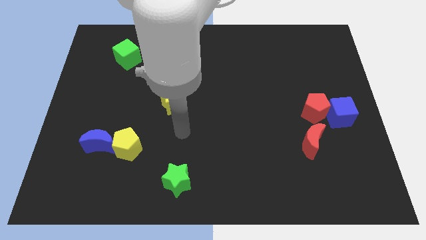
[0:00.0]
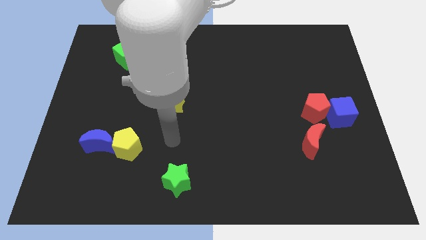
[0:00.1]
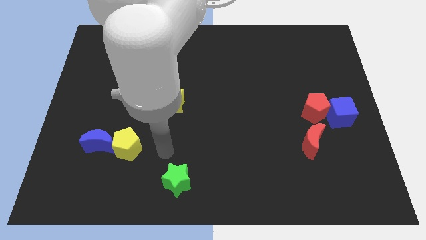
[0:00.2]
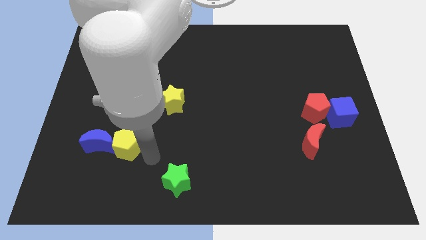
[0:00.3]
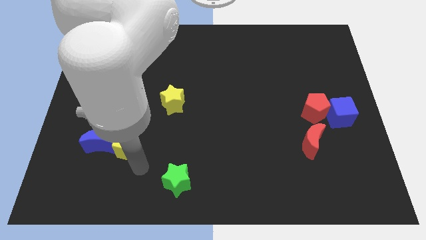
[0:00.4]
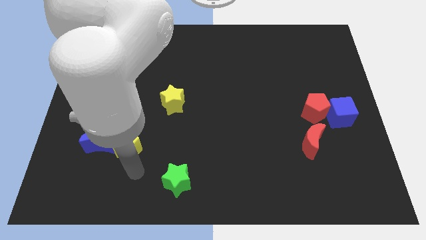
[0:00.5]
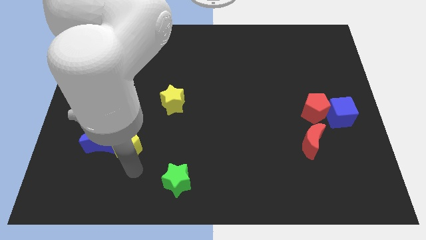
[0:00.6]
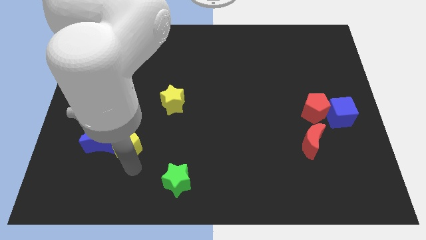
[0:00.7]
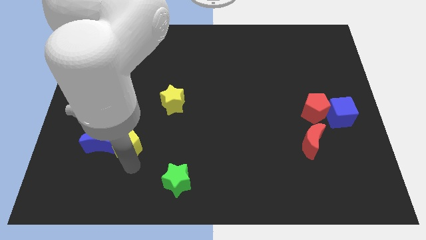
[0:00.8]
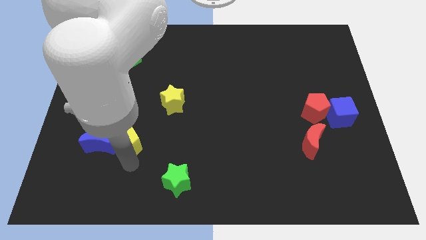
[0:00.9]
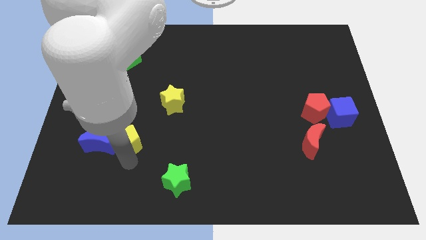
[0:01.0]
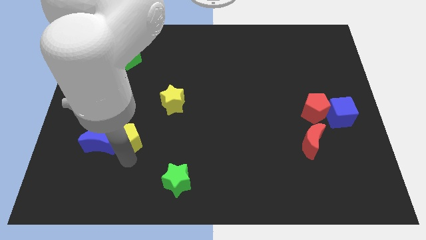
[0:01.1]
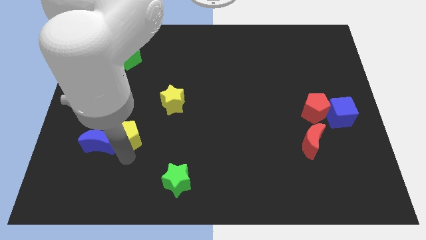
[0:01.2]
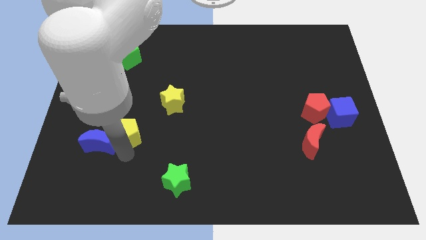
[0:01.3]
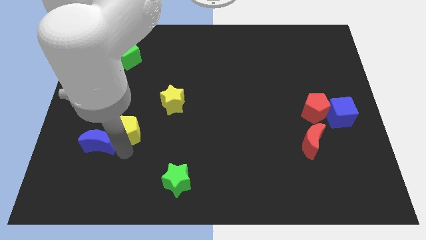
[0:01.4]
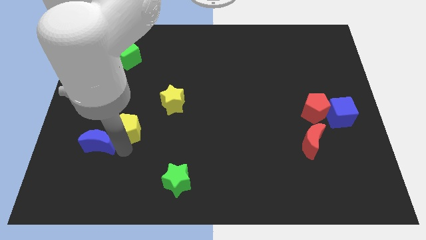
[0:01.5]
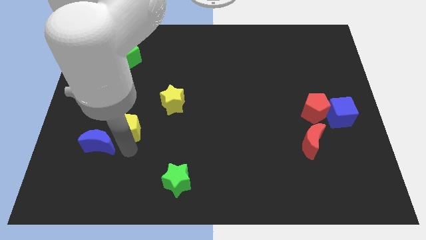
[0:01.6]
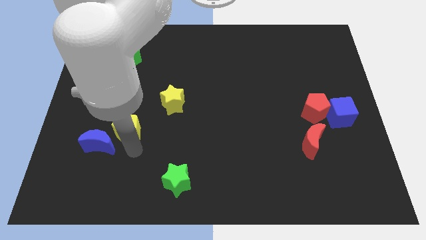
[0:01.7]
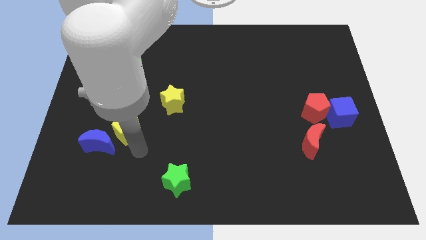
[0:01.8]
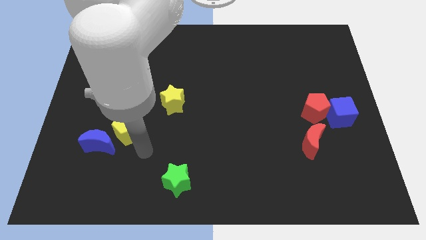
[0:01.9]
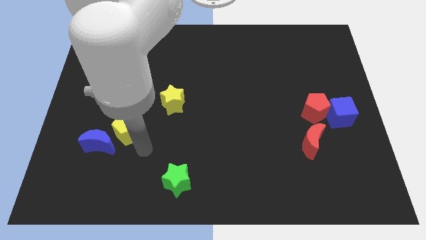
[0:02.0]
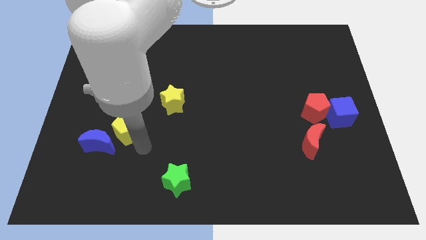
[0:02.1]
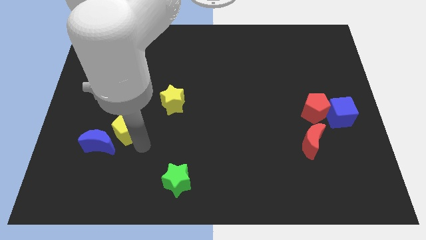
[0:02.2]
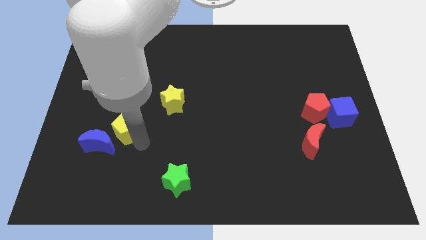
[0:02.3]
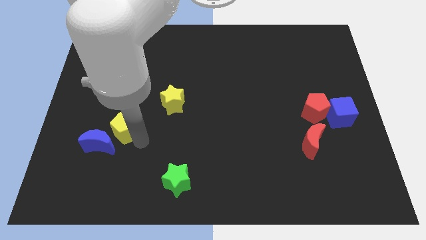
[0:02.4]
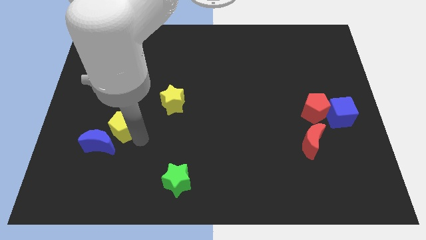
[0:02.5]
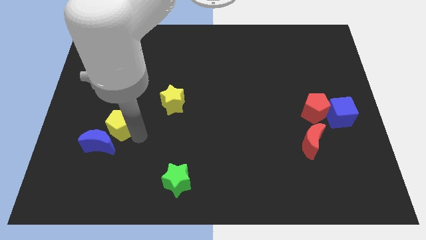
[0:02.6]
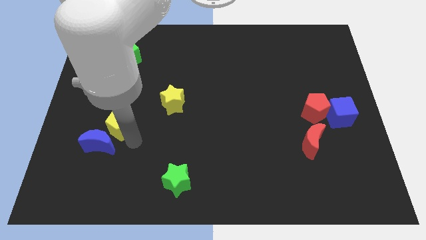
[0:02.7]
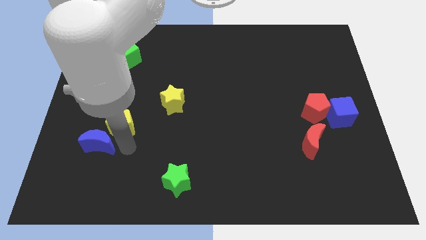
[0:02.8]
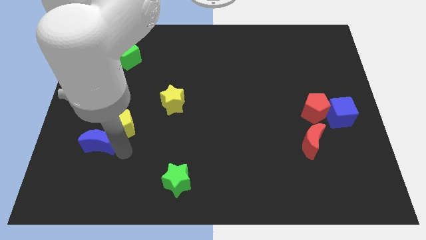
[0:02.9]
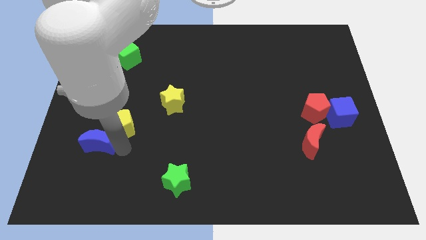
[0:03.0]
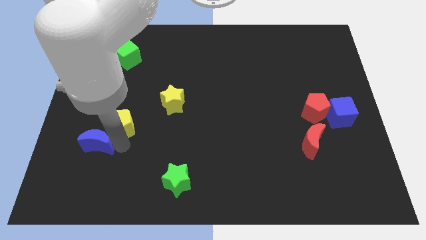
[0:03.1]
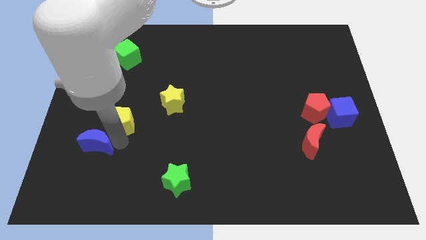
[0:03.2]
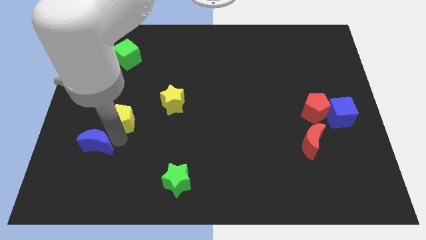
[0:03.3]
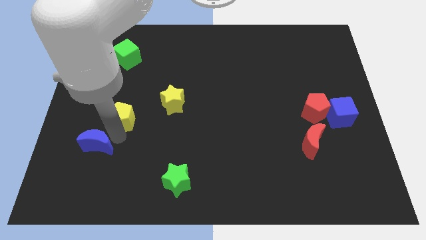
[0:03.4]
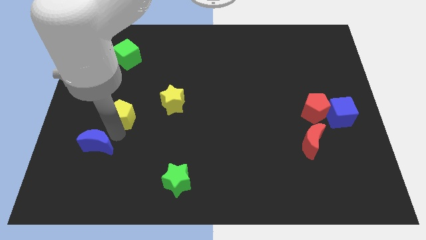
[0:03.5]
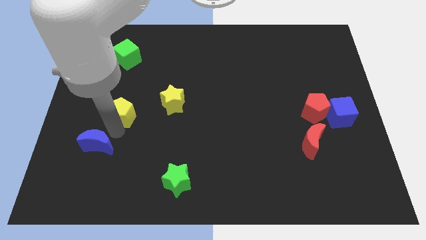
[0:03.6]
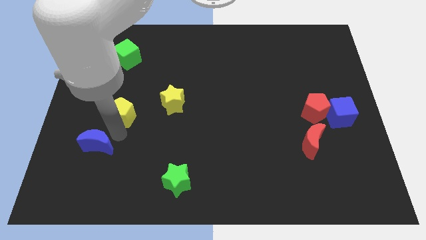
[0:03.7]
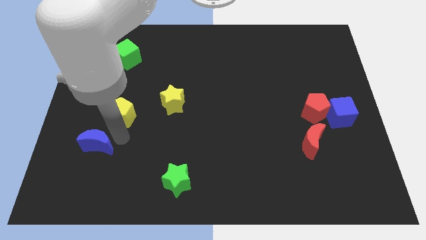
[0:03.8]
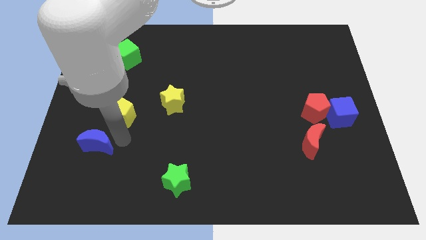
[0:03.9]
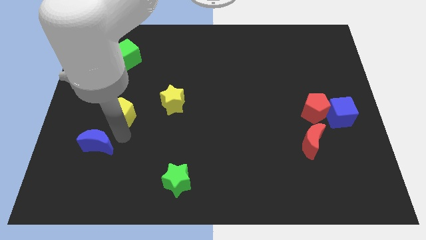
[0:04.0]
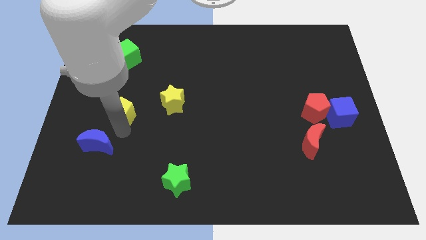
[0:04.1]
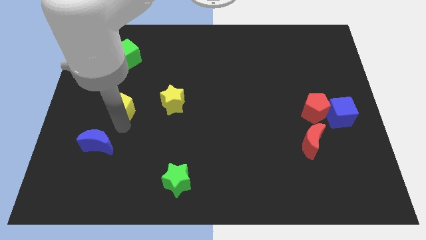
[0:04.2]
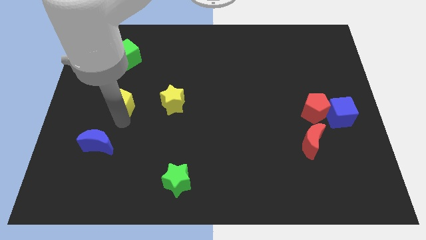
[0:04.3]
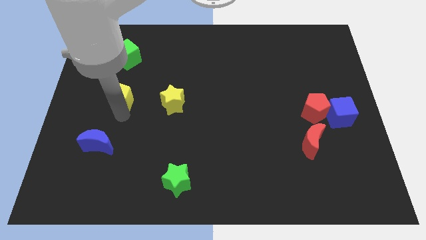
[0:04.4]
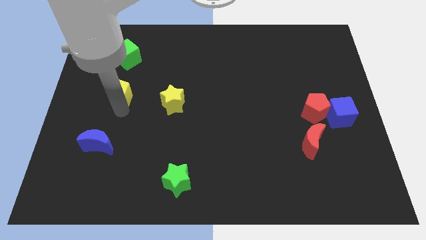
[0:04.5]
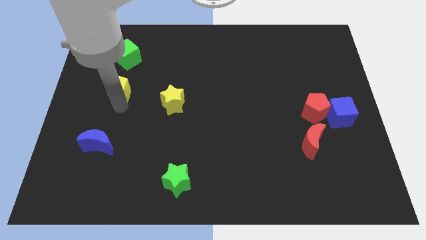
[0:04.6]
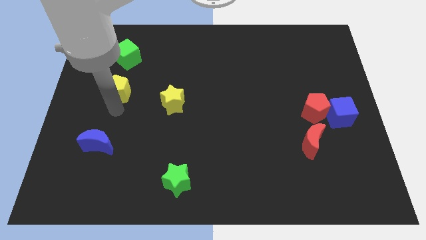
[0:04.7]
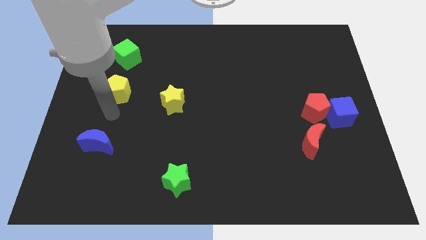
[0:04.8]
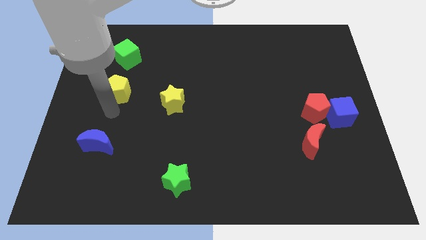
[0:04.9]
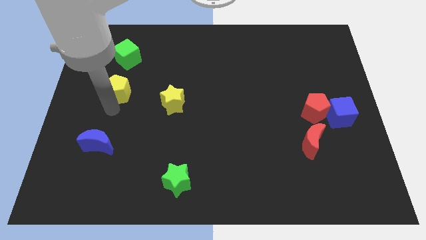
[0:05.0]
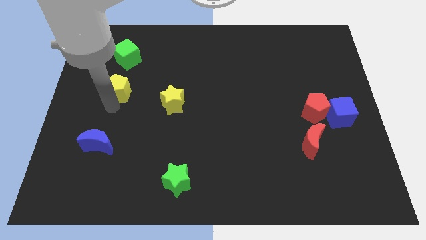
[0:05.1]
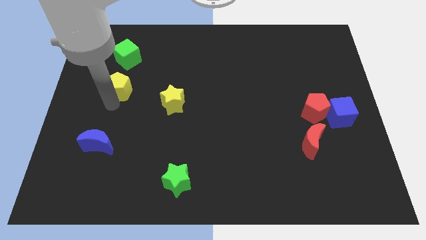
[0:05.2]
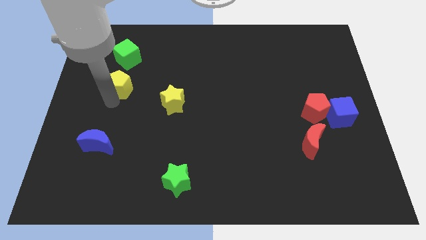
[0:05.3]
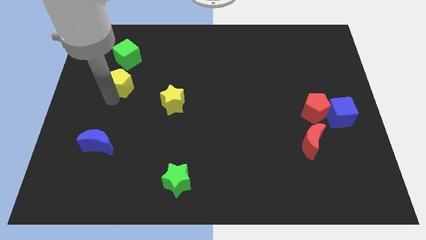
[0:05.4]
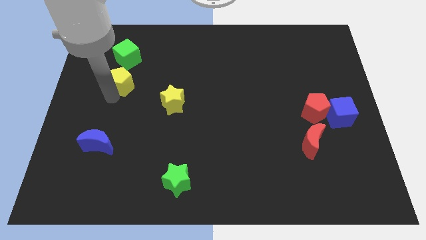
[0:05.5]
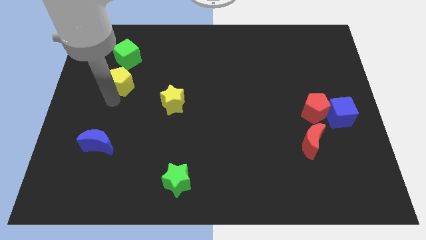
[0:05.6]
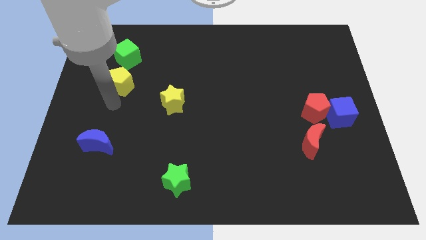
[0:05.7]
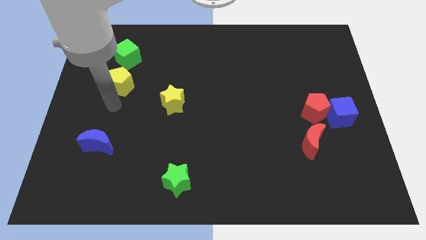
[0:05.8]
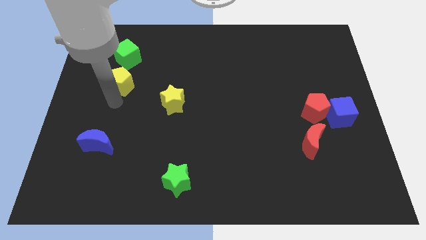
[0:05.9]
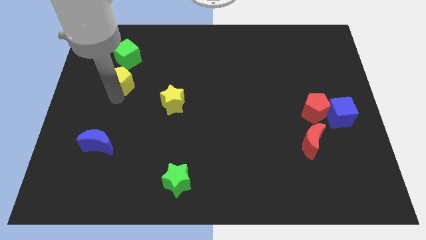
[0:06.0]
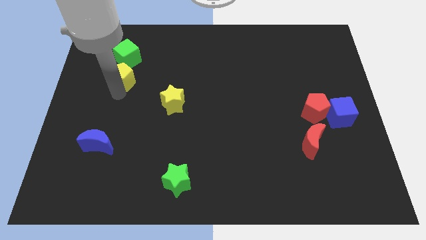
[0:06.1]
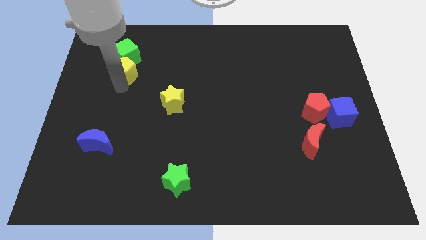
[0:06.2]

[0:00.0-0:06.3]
move the yellow pentagon to the green cube

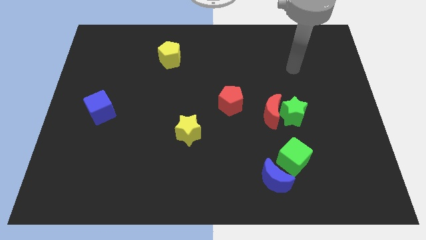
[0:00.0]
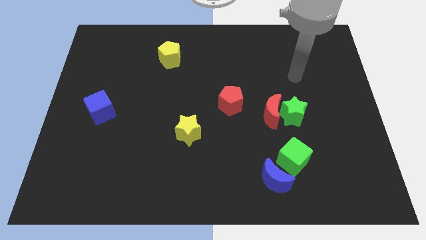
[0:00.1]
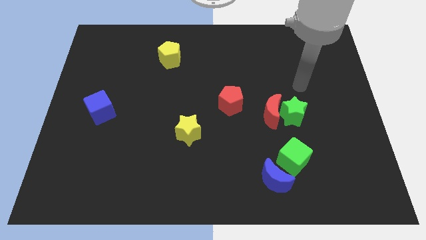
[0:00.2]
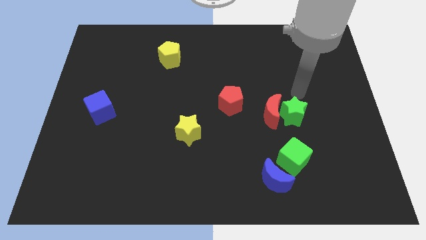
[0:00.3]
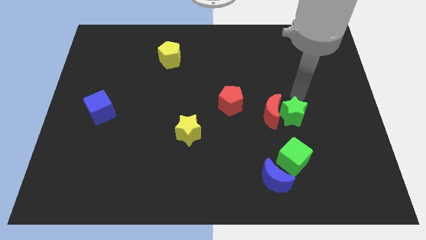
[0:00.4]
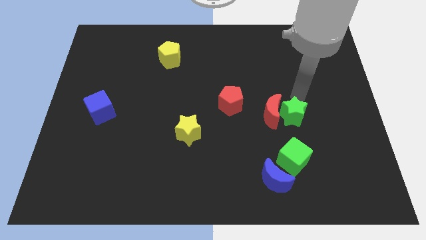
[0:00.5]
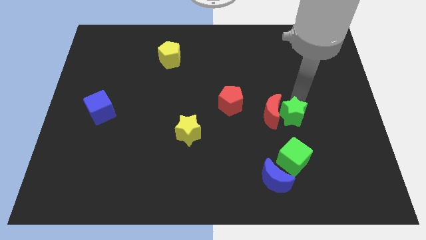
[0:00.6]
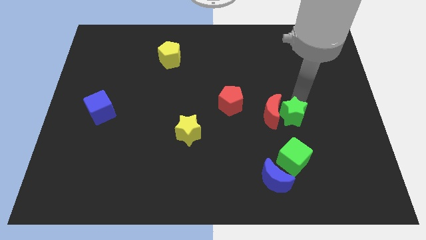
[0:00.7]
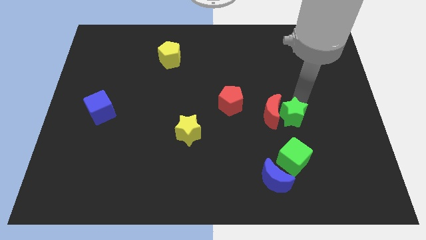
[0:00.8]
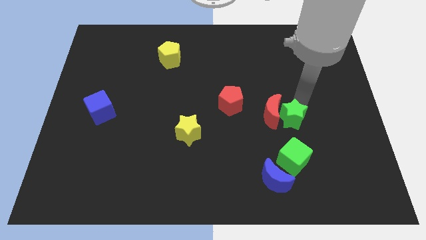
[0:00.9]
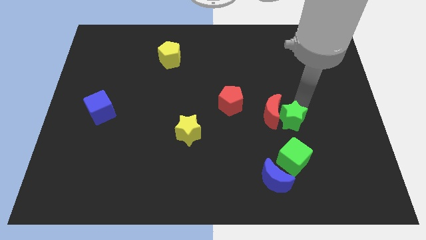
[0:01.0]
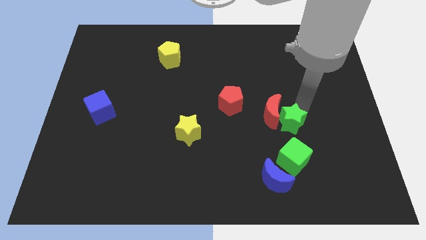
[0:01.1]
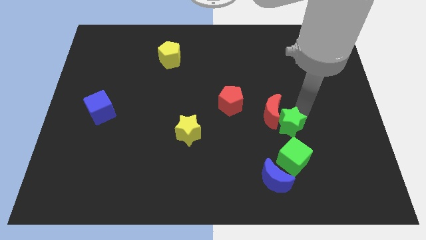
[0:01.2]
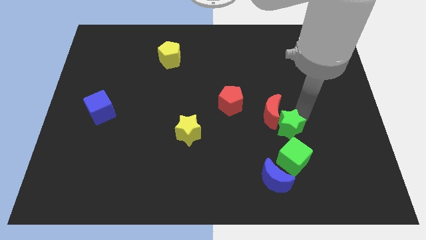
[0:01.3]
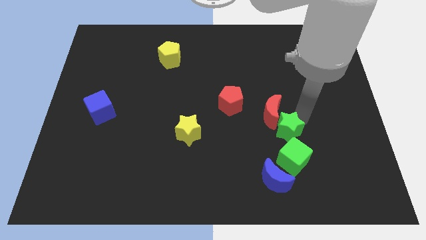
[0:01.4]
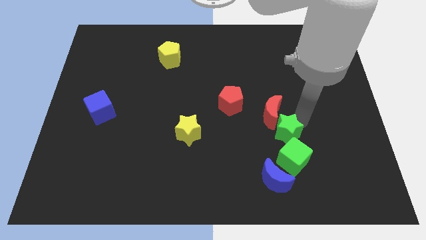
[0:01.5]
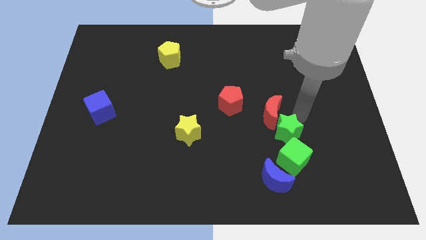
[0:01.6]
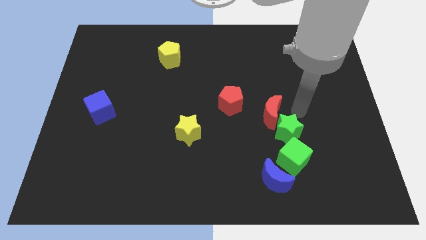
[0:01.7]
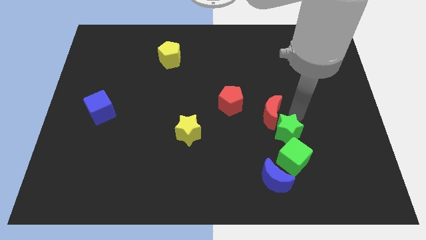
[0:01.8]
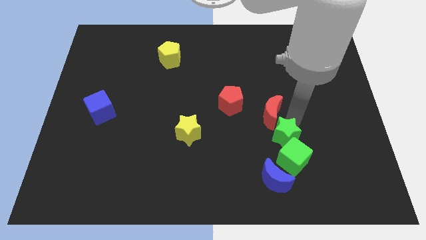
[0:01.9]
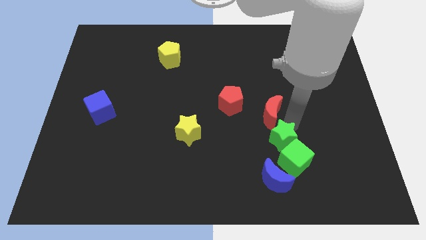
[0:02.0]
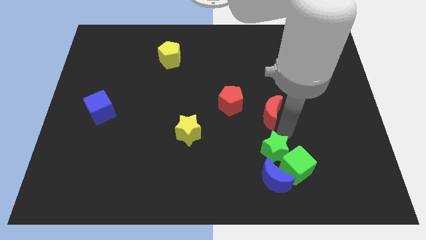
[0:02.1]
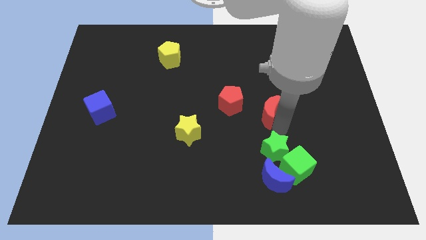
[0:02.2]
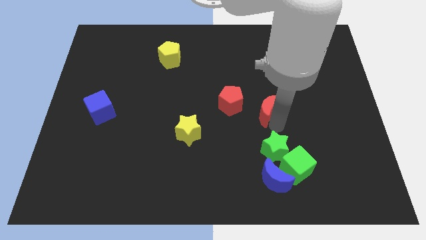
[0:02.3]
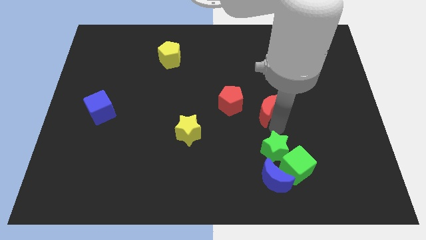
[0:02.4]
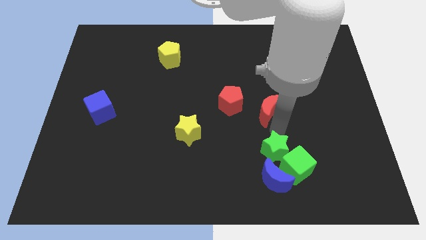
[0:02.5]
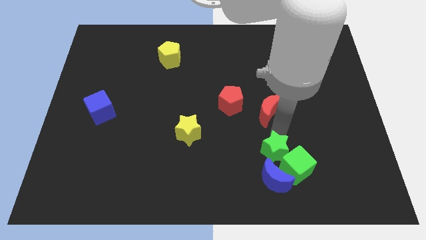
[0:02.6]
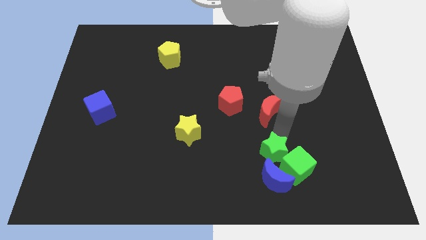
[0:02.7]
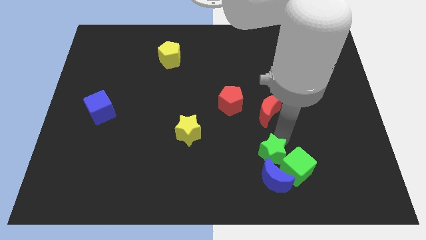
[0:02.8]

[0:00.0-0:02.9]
push the green star next to the blue moon
